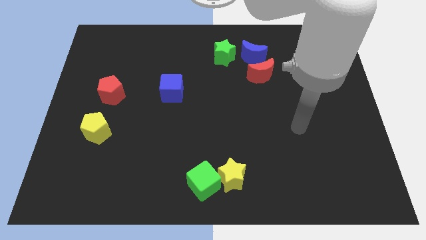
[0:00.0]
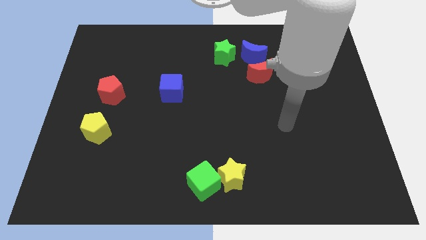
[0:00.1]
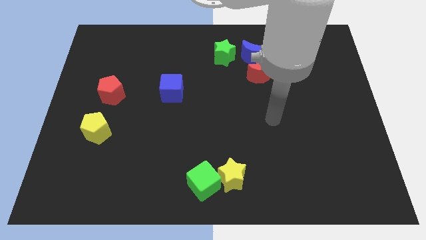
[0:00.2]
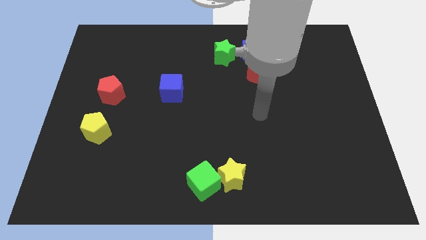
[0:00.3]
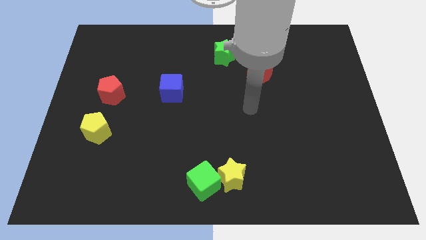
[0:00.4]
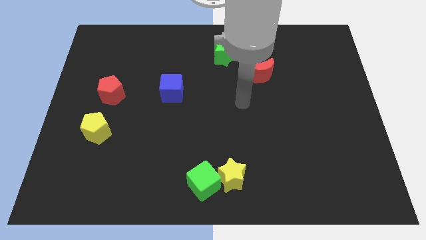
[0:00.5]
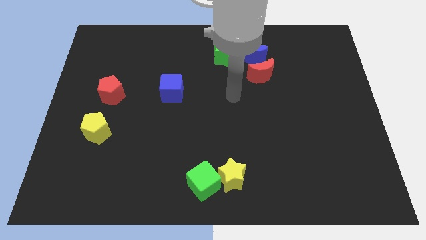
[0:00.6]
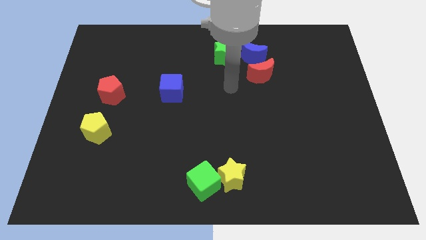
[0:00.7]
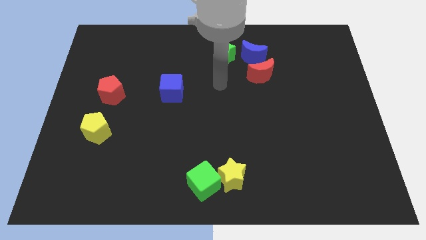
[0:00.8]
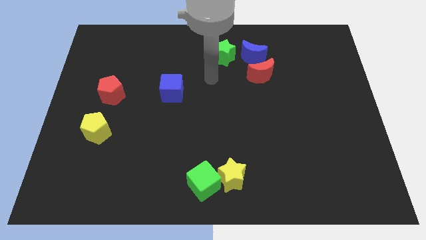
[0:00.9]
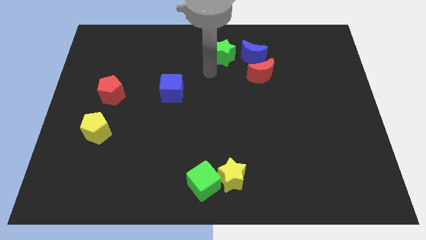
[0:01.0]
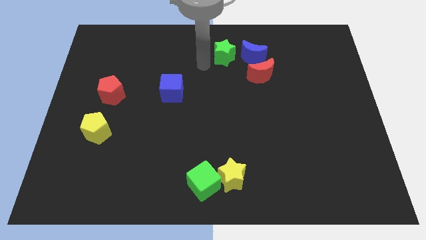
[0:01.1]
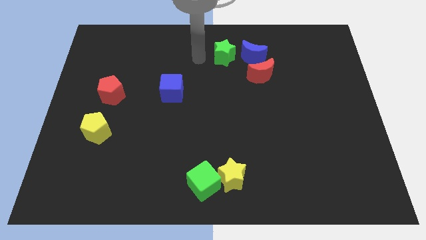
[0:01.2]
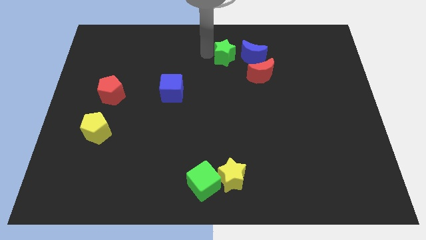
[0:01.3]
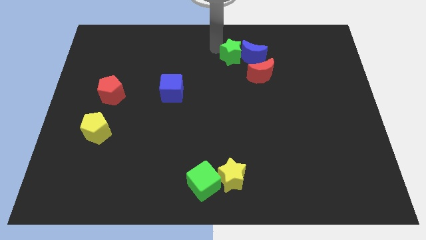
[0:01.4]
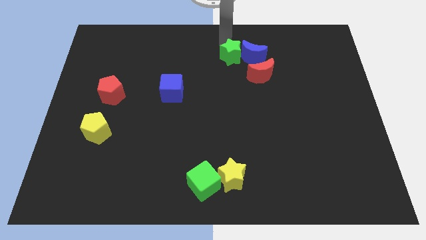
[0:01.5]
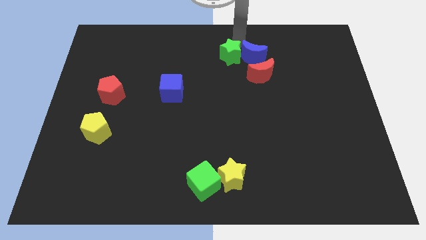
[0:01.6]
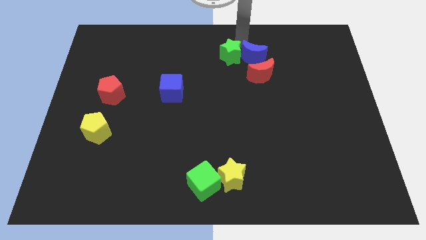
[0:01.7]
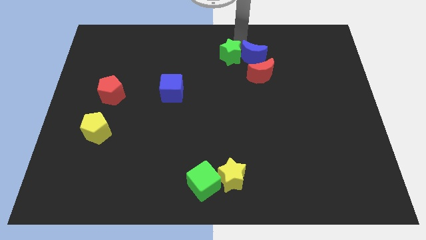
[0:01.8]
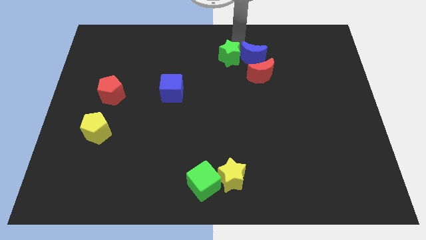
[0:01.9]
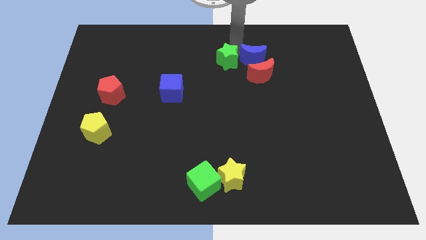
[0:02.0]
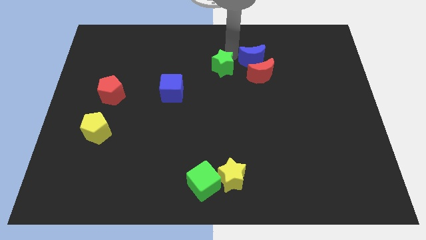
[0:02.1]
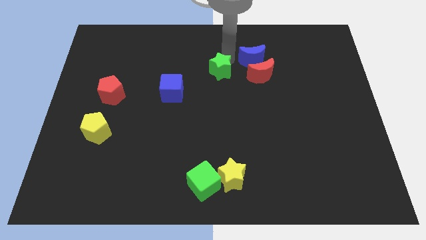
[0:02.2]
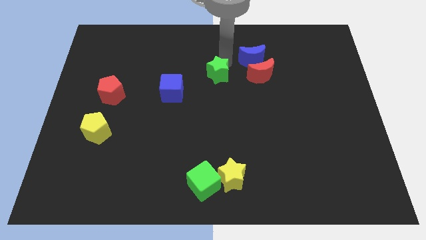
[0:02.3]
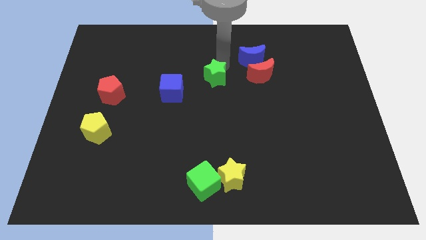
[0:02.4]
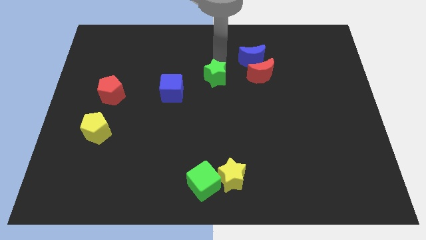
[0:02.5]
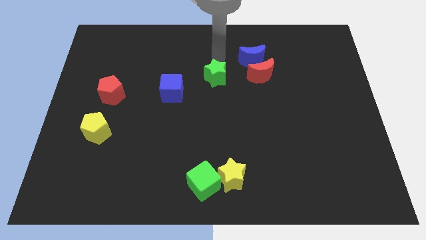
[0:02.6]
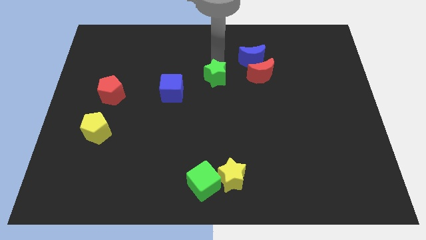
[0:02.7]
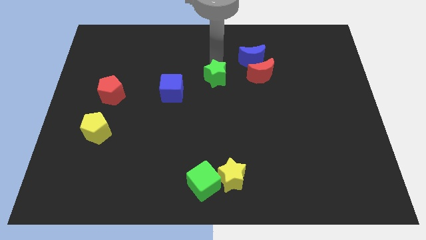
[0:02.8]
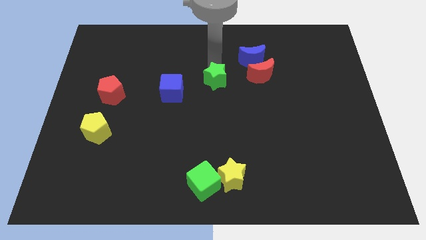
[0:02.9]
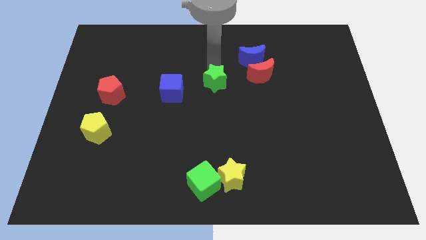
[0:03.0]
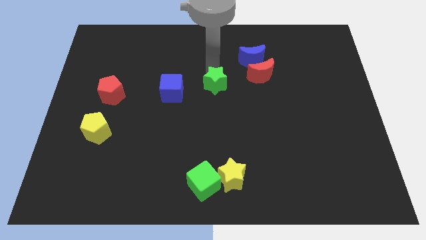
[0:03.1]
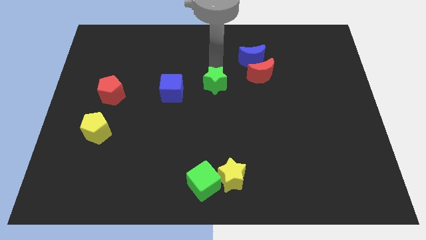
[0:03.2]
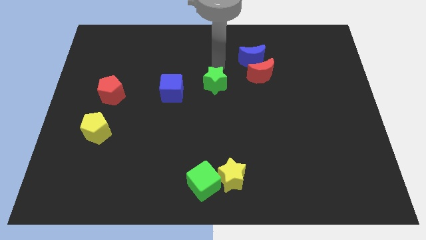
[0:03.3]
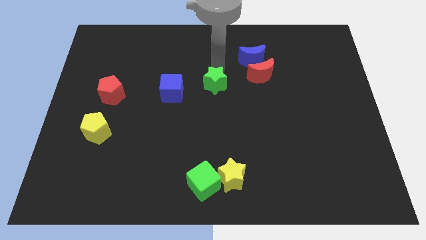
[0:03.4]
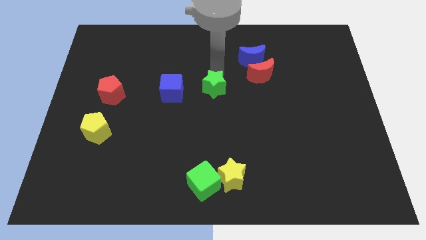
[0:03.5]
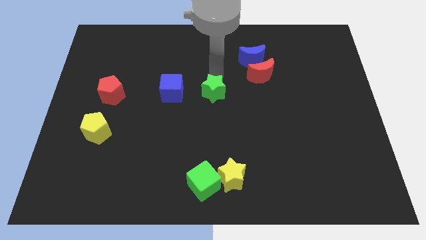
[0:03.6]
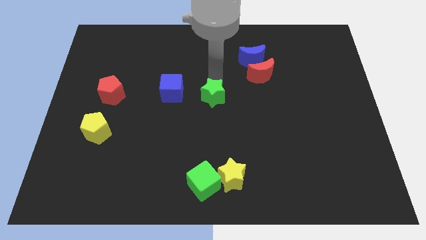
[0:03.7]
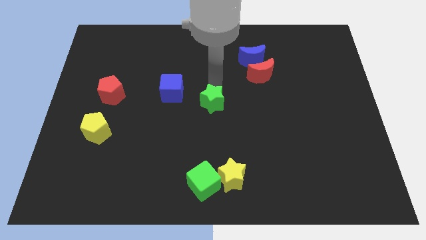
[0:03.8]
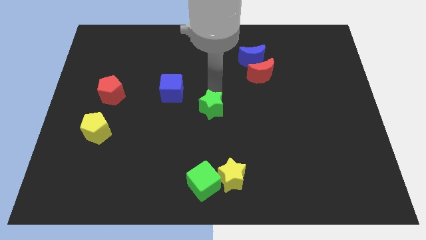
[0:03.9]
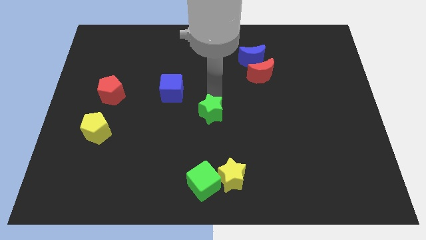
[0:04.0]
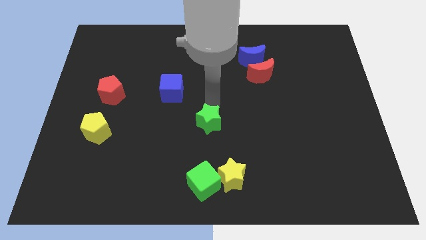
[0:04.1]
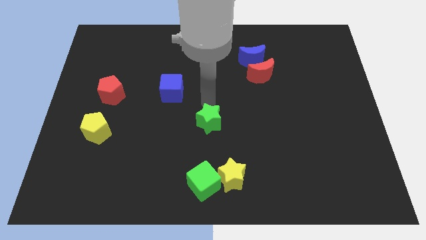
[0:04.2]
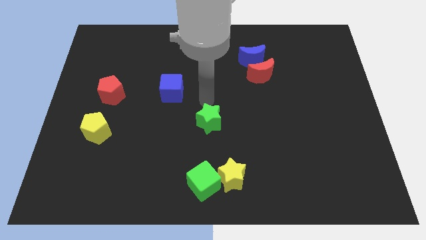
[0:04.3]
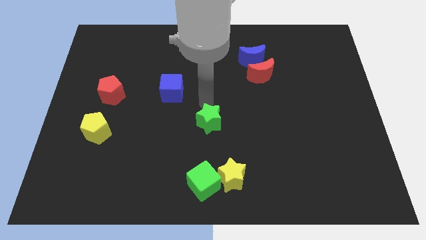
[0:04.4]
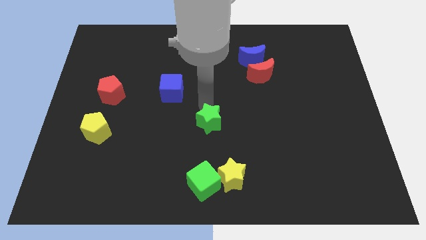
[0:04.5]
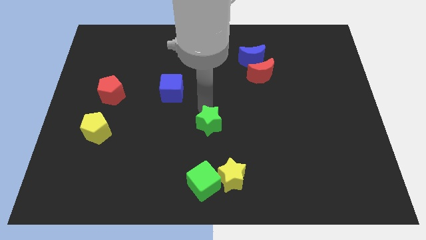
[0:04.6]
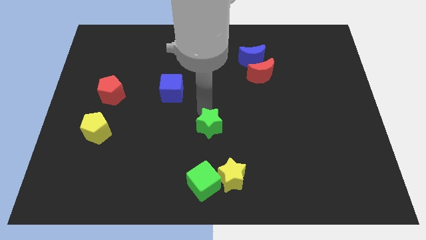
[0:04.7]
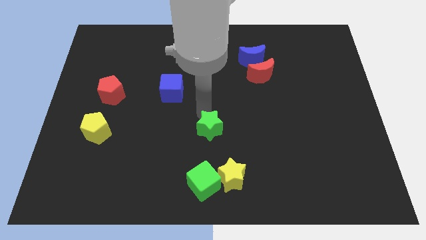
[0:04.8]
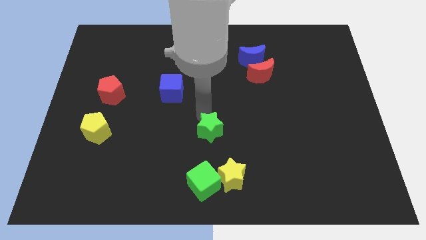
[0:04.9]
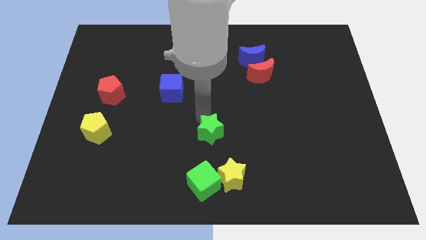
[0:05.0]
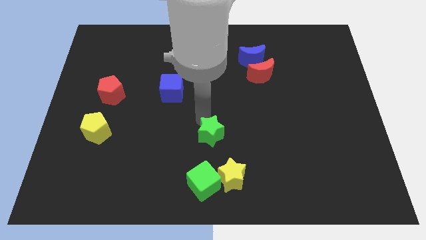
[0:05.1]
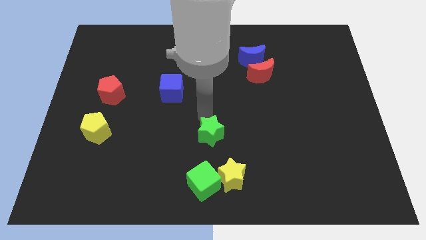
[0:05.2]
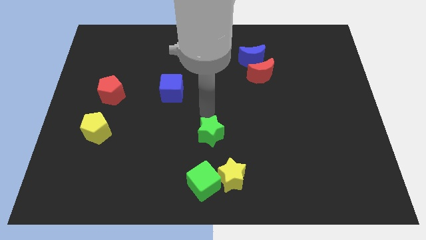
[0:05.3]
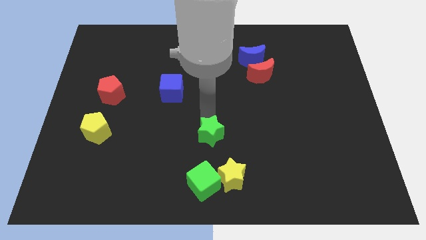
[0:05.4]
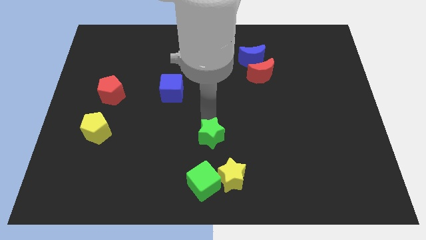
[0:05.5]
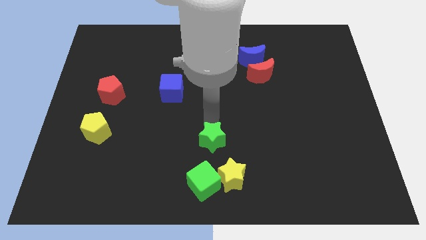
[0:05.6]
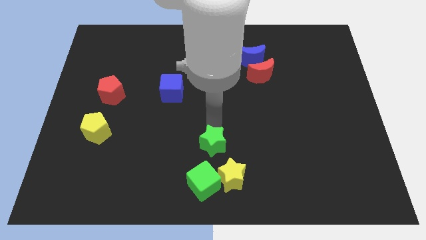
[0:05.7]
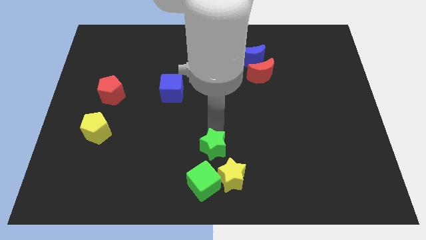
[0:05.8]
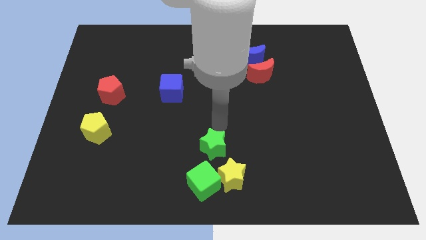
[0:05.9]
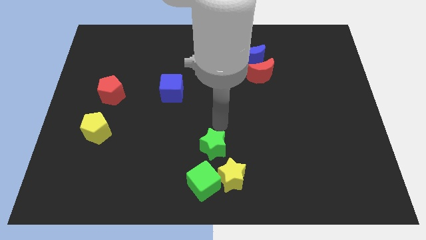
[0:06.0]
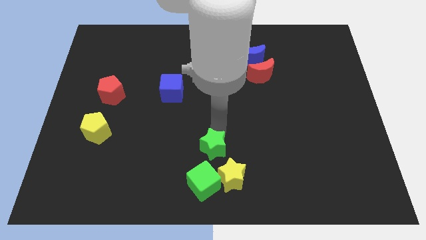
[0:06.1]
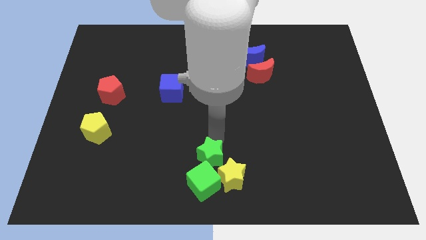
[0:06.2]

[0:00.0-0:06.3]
slide the green star to the green cube

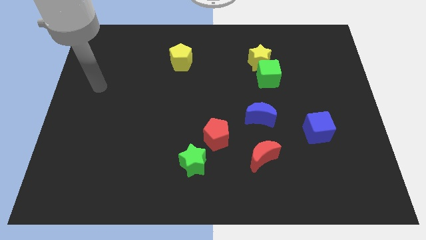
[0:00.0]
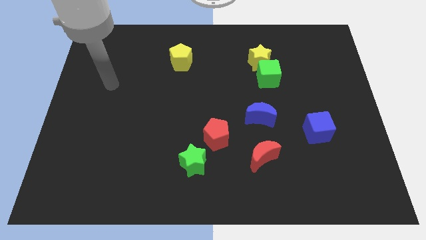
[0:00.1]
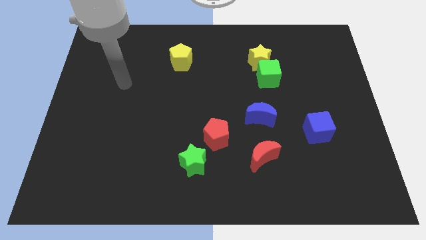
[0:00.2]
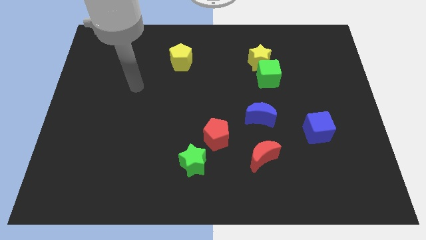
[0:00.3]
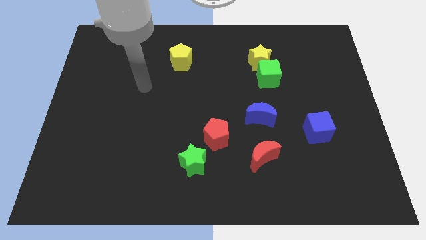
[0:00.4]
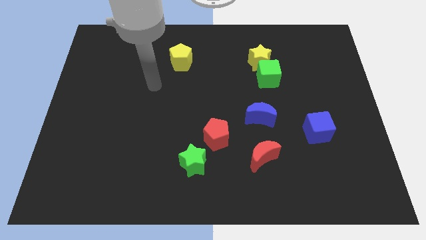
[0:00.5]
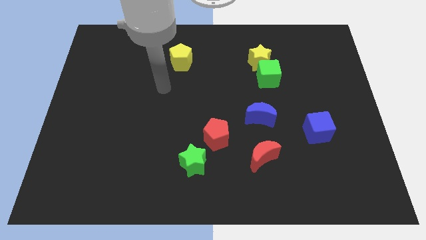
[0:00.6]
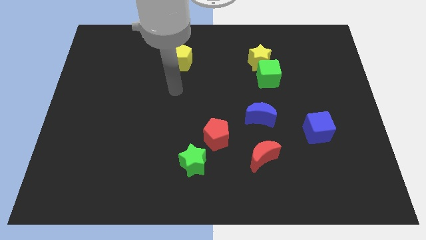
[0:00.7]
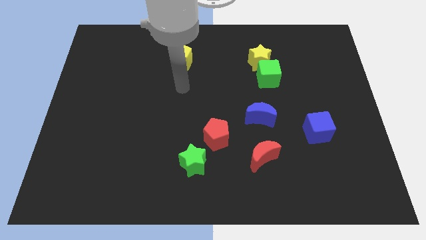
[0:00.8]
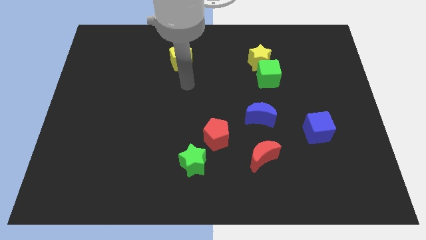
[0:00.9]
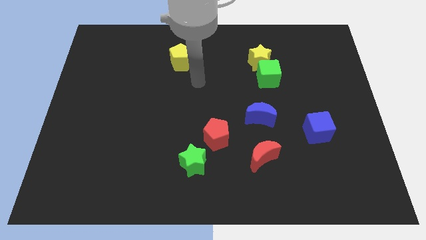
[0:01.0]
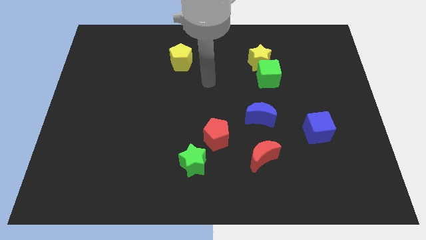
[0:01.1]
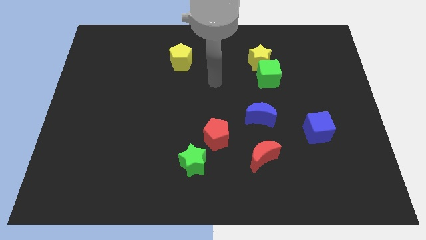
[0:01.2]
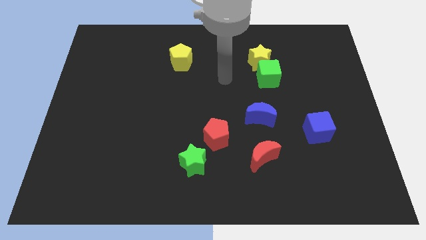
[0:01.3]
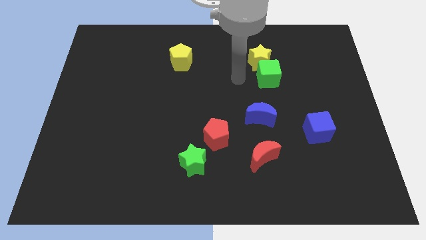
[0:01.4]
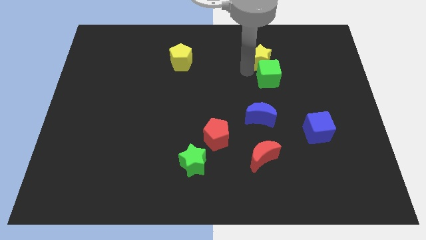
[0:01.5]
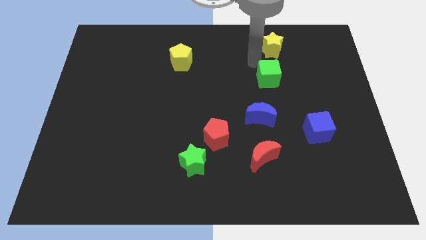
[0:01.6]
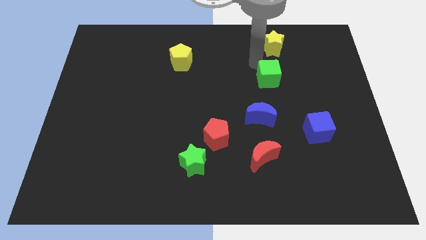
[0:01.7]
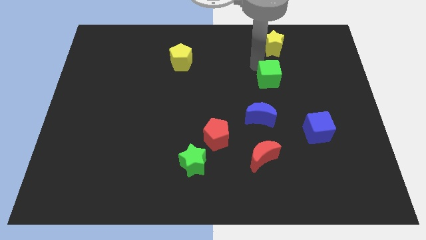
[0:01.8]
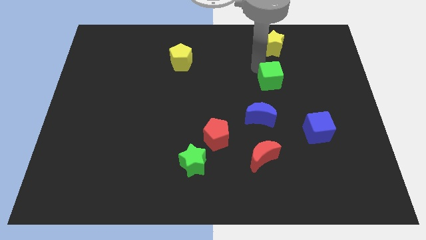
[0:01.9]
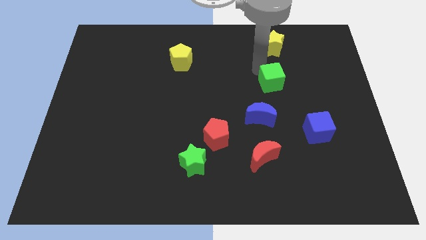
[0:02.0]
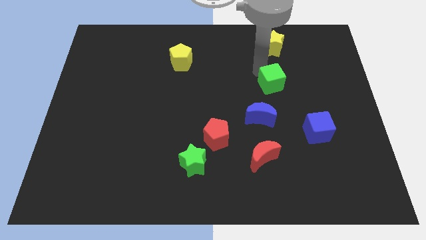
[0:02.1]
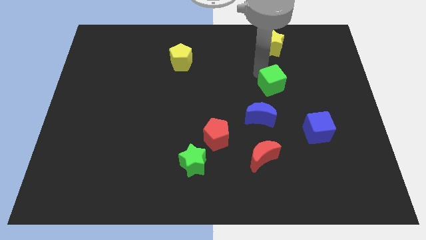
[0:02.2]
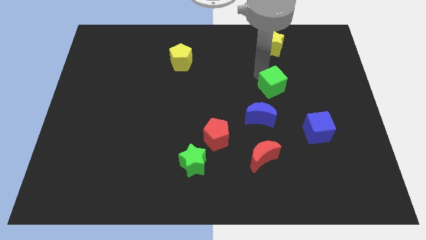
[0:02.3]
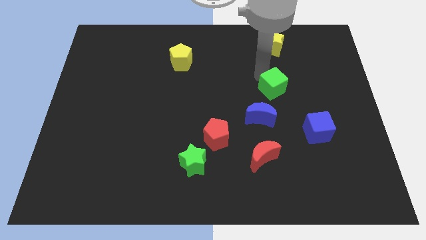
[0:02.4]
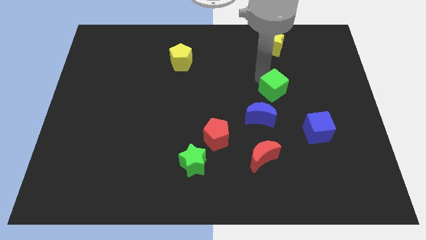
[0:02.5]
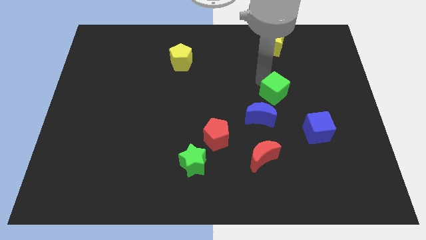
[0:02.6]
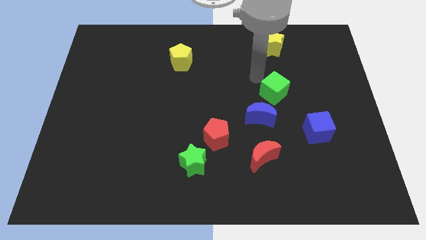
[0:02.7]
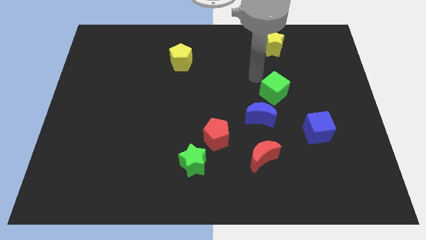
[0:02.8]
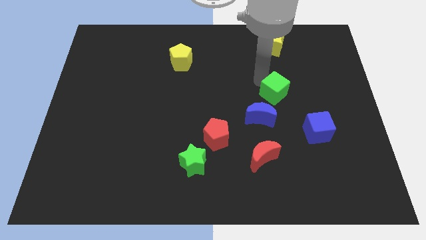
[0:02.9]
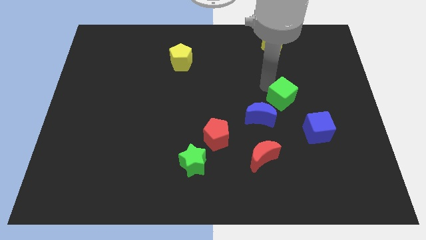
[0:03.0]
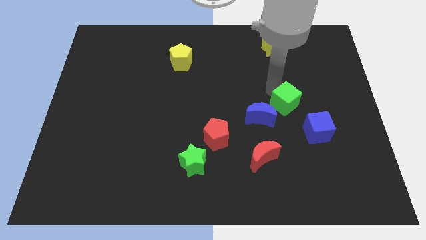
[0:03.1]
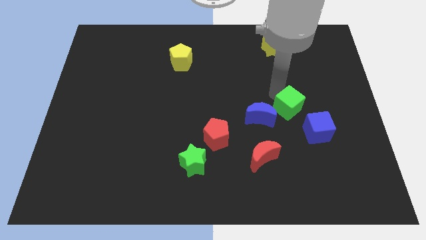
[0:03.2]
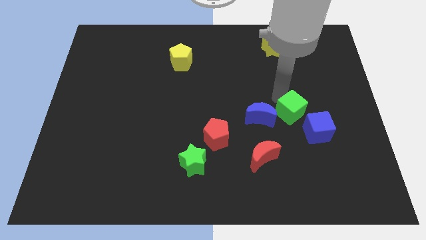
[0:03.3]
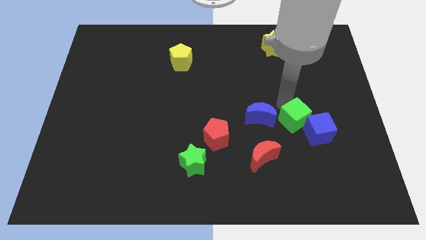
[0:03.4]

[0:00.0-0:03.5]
put the green cube to the blue cube
